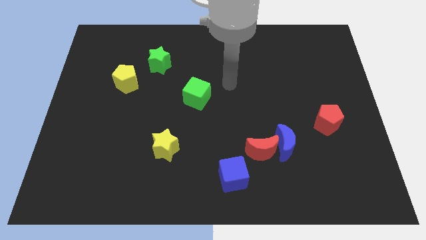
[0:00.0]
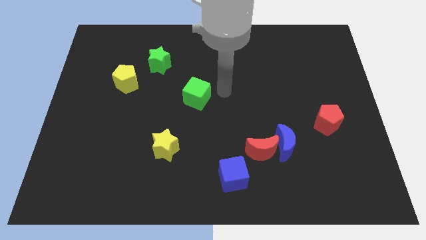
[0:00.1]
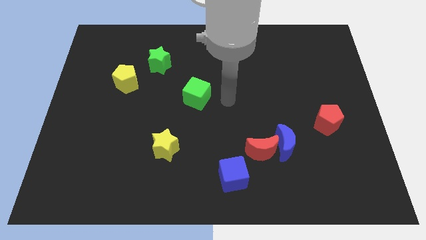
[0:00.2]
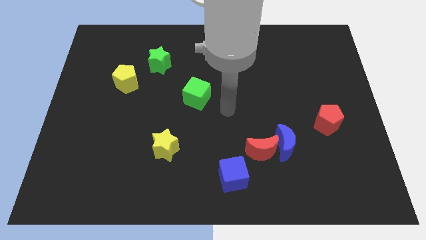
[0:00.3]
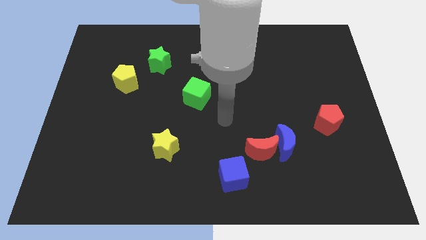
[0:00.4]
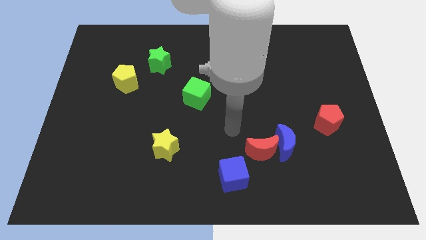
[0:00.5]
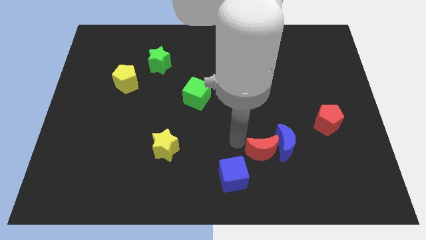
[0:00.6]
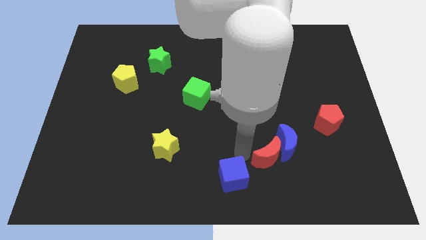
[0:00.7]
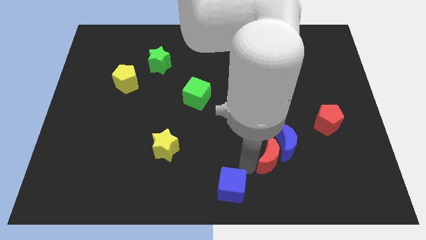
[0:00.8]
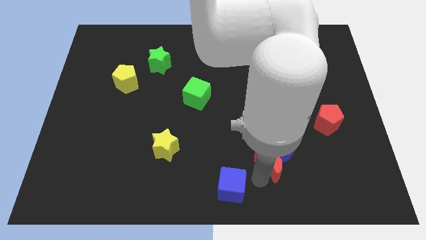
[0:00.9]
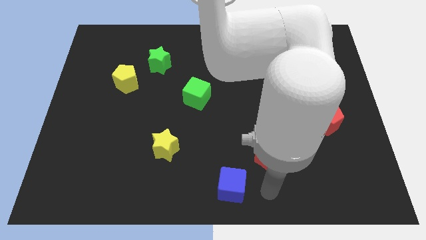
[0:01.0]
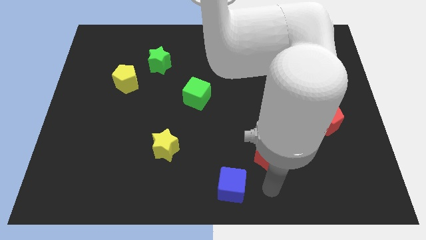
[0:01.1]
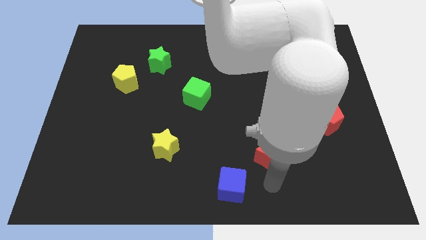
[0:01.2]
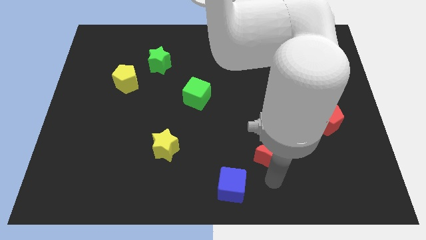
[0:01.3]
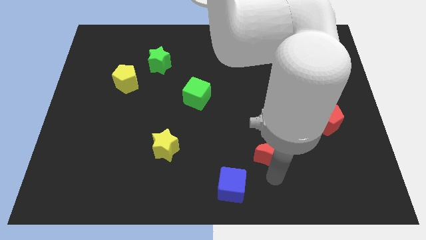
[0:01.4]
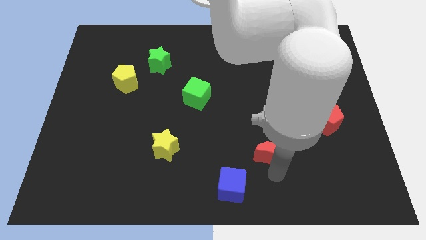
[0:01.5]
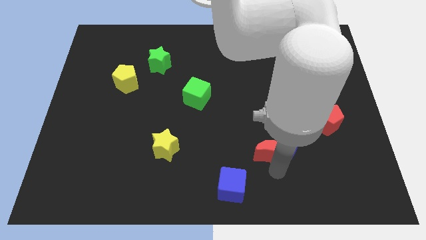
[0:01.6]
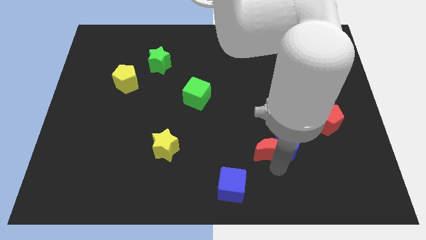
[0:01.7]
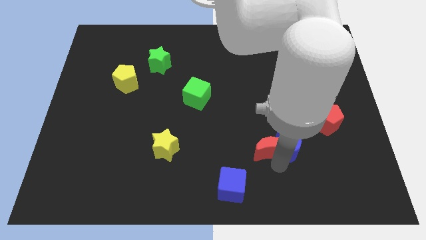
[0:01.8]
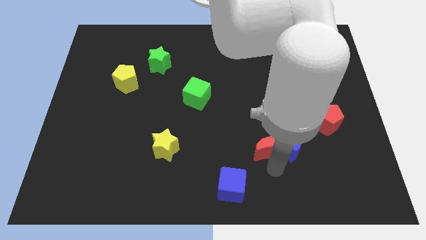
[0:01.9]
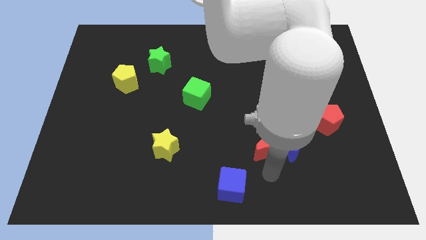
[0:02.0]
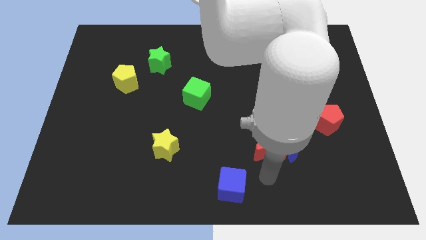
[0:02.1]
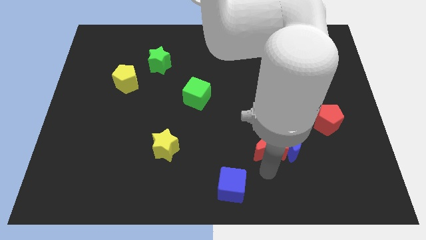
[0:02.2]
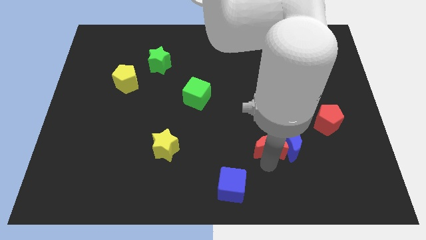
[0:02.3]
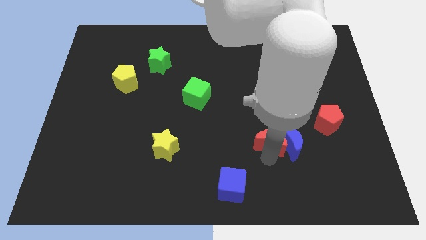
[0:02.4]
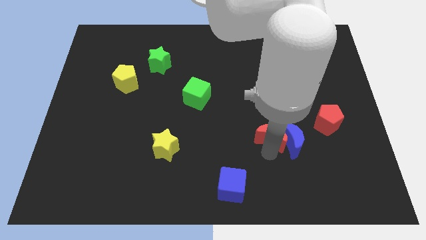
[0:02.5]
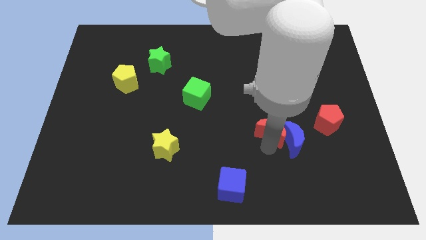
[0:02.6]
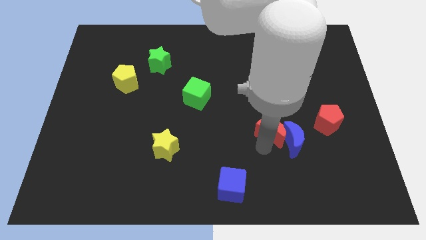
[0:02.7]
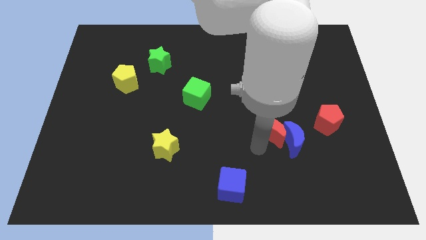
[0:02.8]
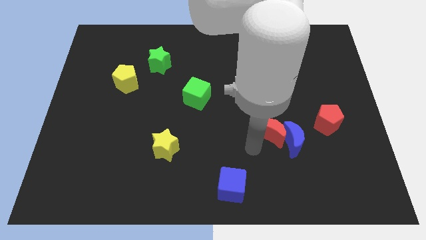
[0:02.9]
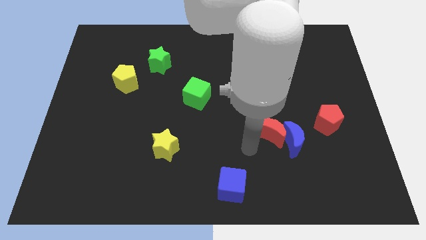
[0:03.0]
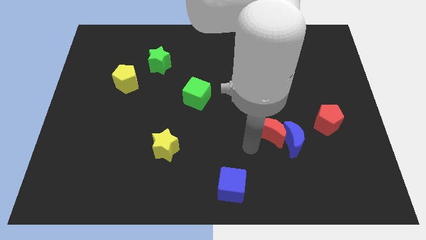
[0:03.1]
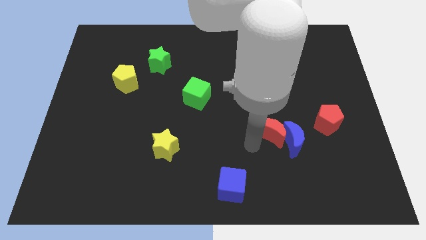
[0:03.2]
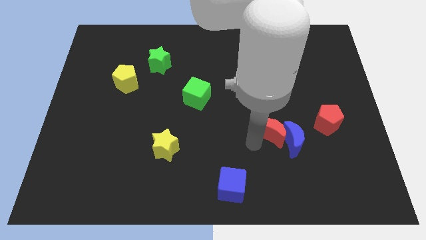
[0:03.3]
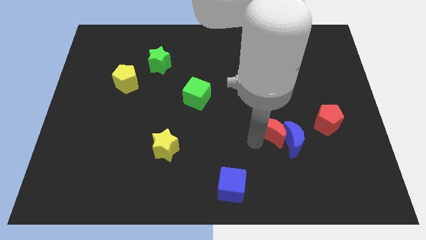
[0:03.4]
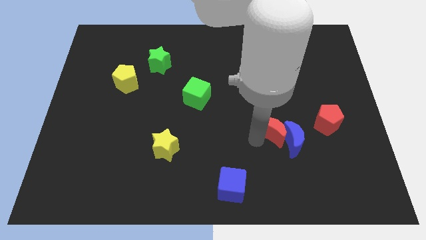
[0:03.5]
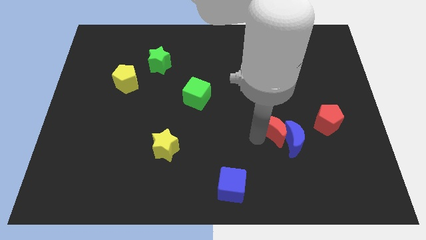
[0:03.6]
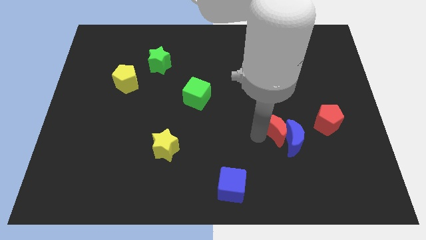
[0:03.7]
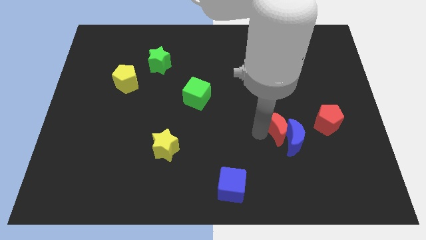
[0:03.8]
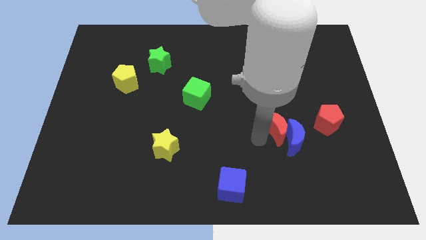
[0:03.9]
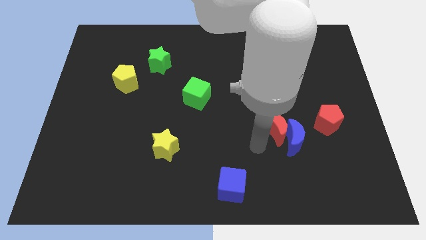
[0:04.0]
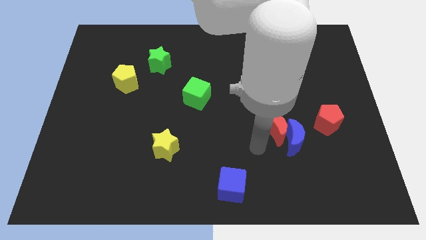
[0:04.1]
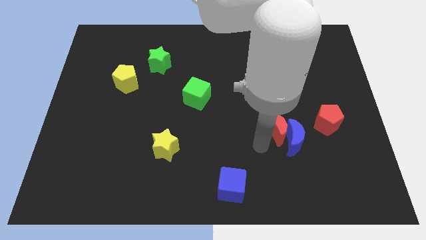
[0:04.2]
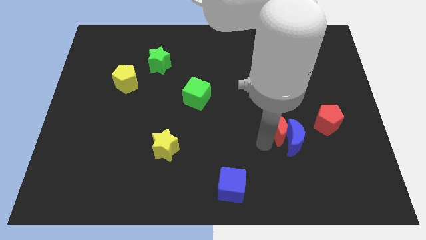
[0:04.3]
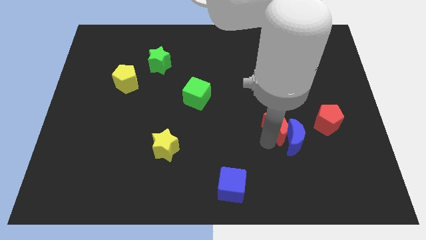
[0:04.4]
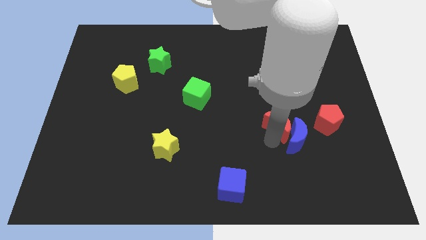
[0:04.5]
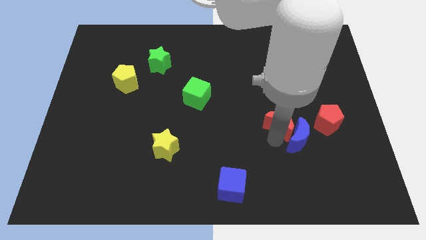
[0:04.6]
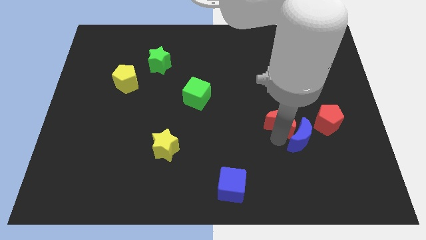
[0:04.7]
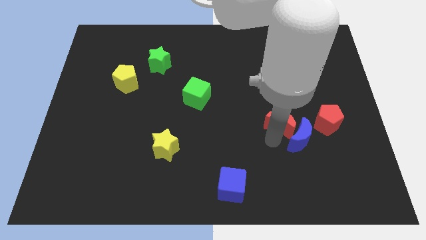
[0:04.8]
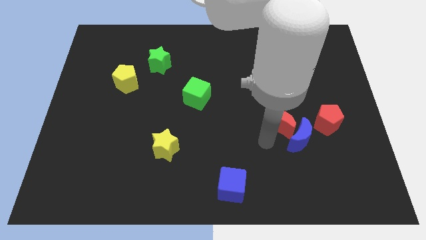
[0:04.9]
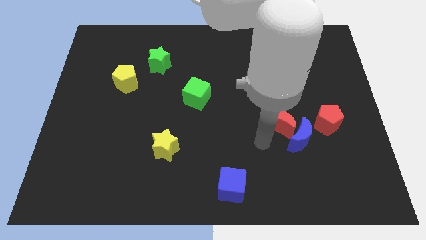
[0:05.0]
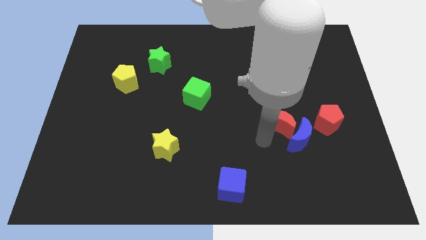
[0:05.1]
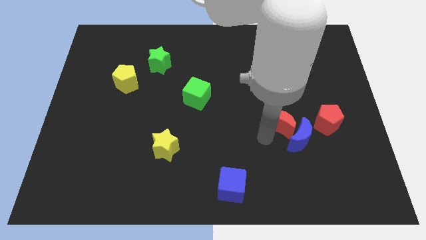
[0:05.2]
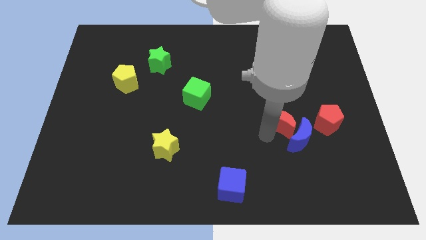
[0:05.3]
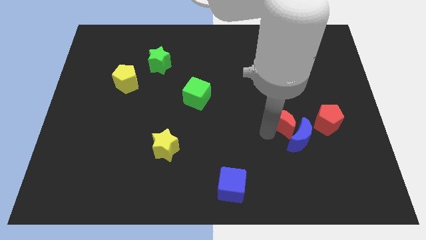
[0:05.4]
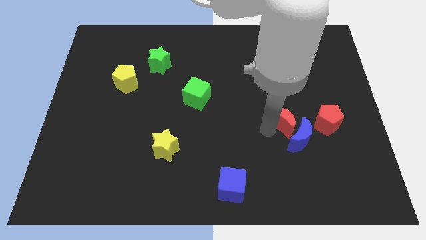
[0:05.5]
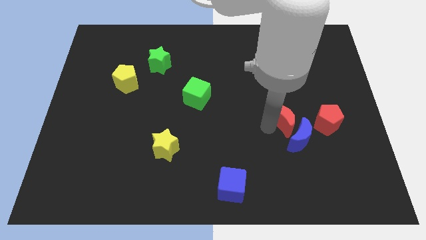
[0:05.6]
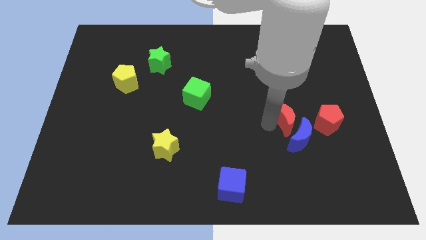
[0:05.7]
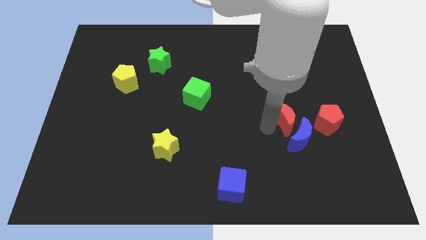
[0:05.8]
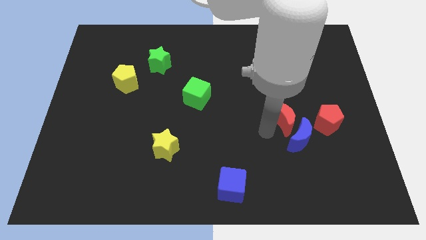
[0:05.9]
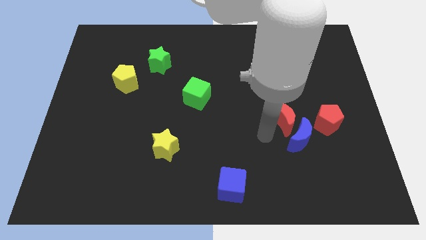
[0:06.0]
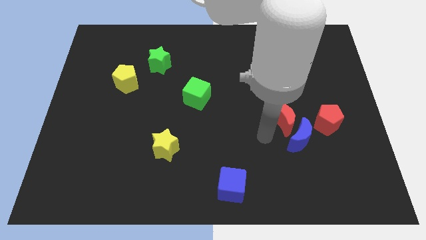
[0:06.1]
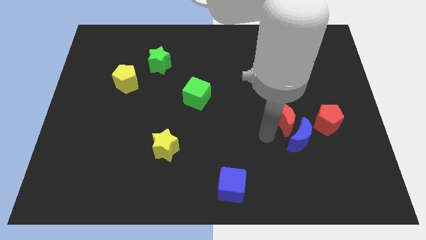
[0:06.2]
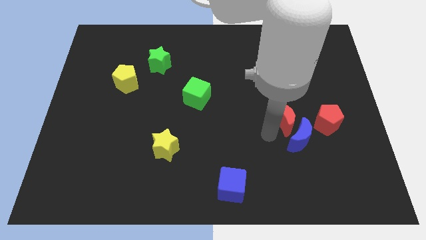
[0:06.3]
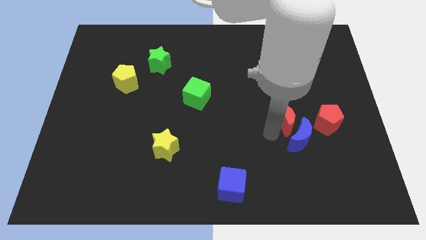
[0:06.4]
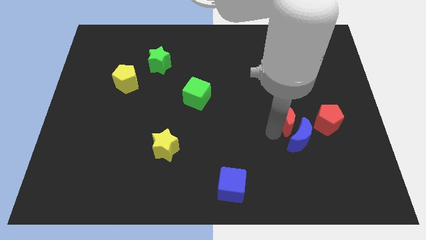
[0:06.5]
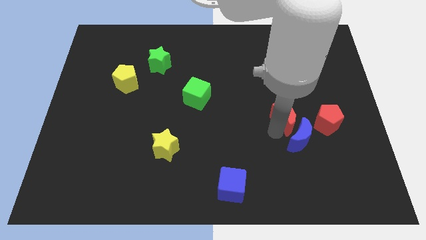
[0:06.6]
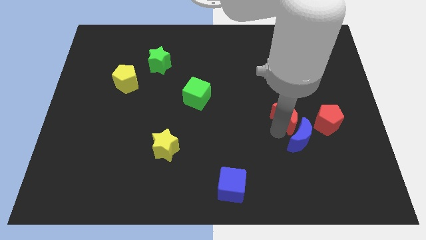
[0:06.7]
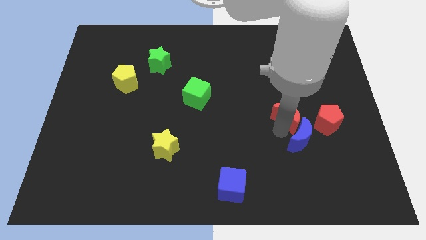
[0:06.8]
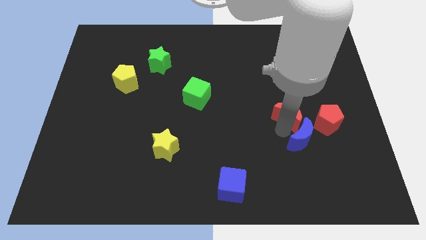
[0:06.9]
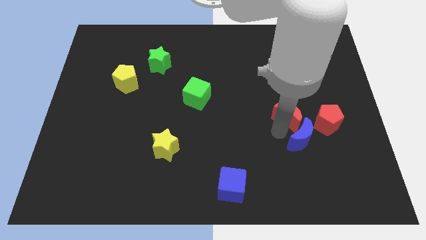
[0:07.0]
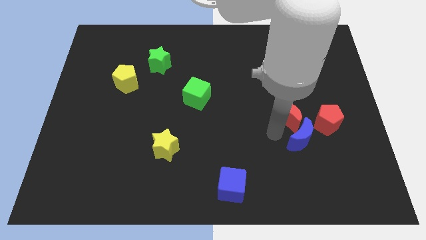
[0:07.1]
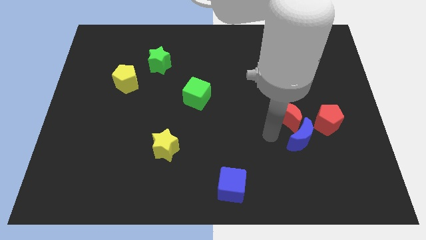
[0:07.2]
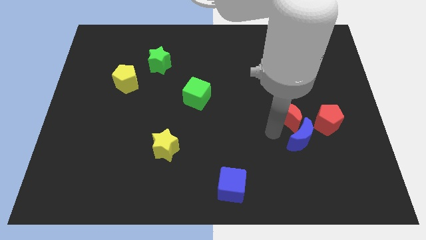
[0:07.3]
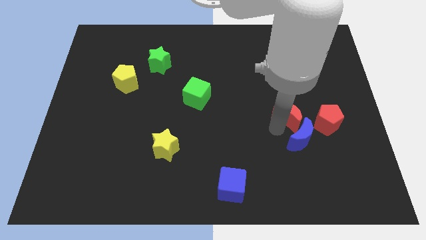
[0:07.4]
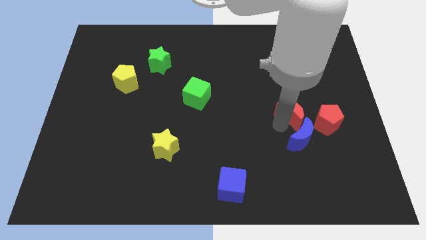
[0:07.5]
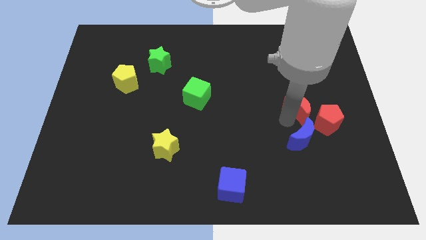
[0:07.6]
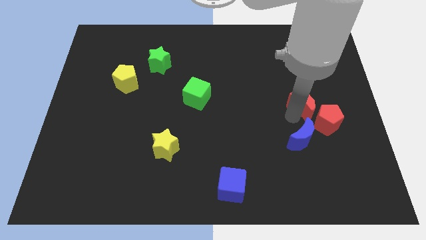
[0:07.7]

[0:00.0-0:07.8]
put the red moon to the top side of the red pentagon

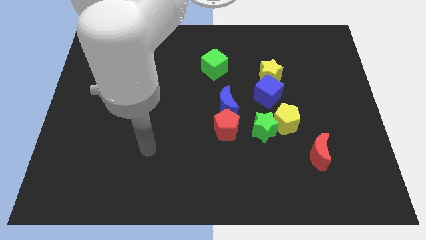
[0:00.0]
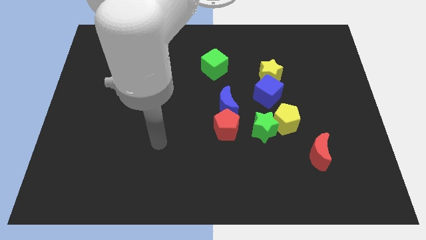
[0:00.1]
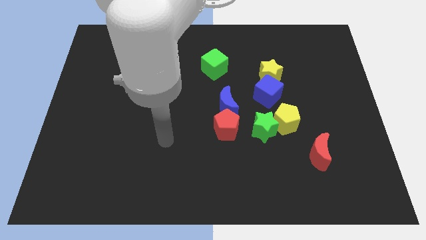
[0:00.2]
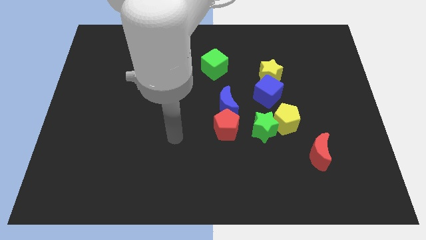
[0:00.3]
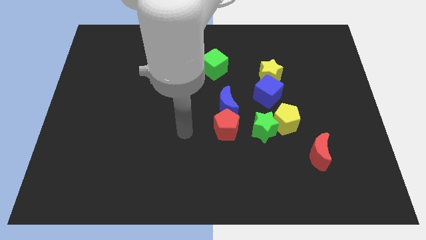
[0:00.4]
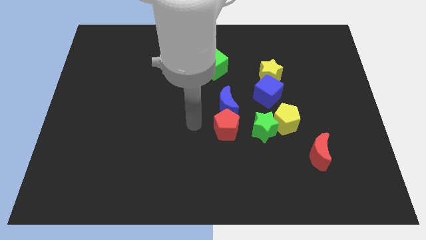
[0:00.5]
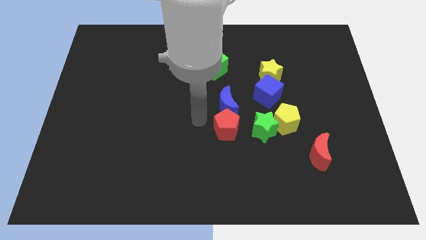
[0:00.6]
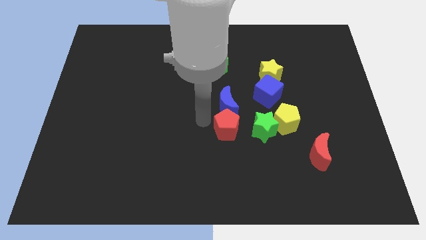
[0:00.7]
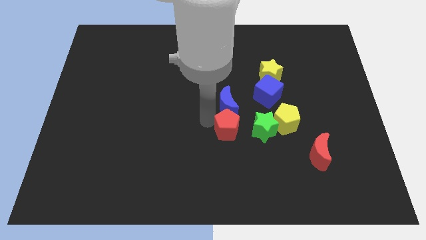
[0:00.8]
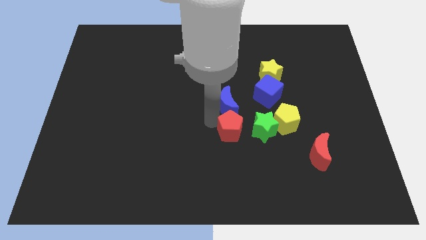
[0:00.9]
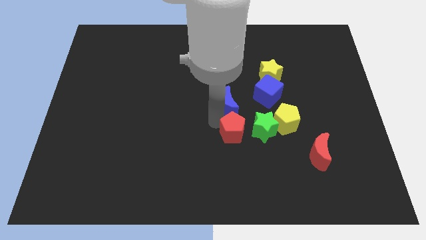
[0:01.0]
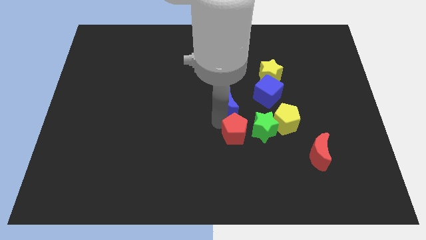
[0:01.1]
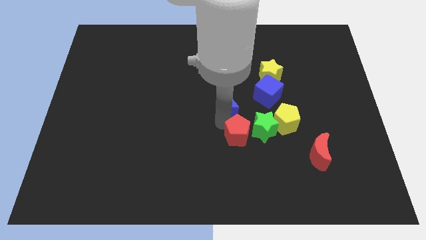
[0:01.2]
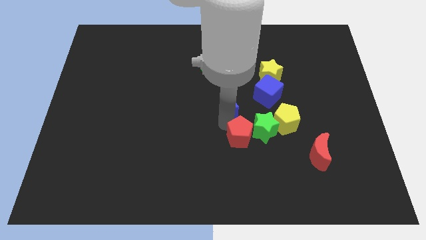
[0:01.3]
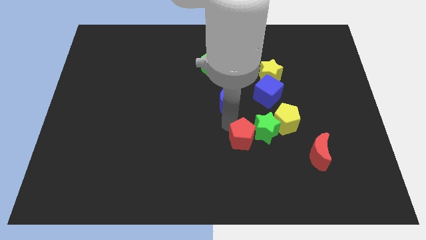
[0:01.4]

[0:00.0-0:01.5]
push the red pentagon to the bottom left side of the yellow pentagon
